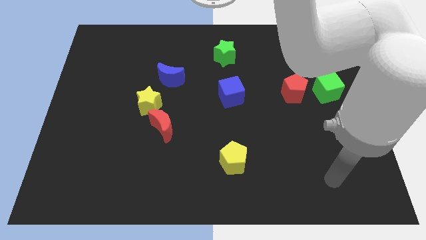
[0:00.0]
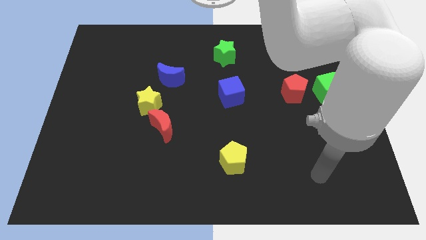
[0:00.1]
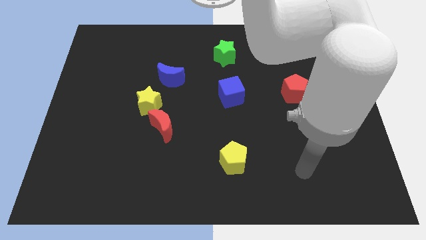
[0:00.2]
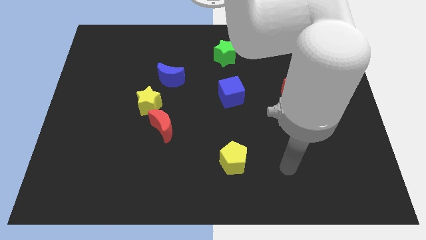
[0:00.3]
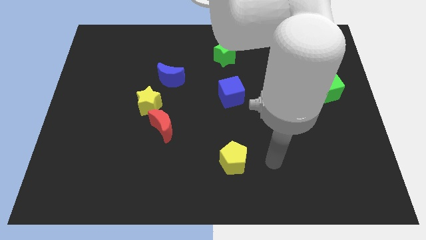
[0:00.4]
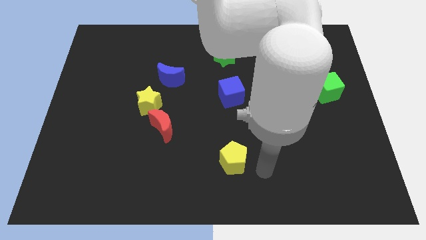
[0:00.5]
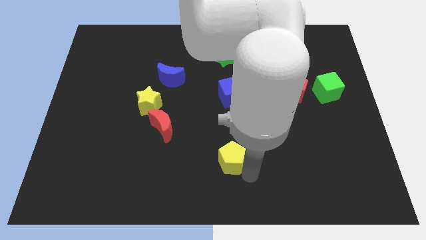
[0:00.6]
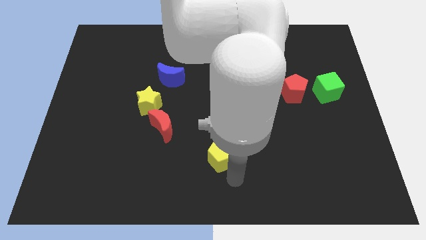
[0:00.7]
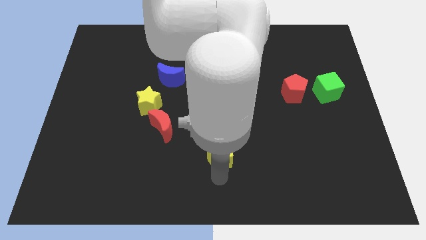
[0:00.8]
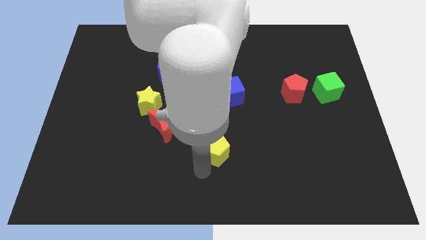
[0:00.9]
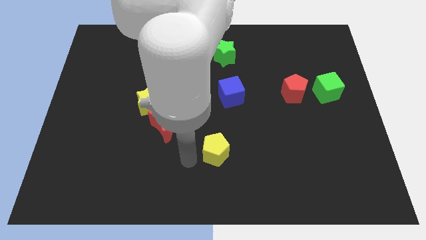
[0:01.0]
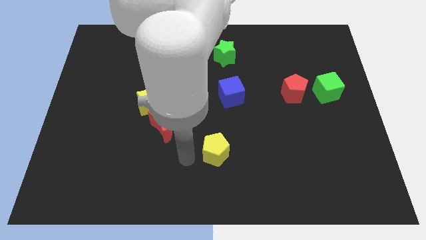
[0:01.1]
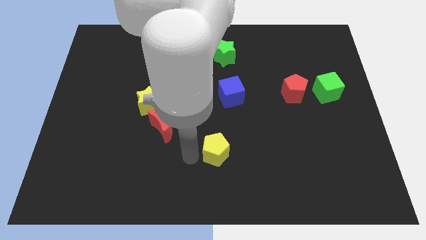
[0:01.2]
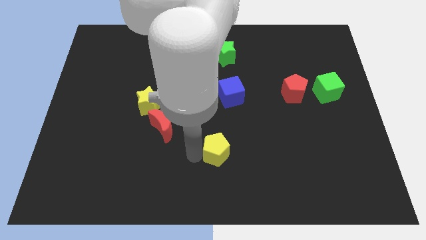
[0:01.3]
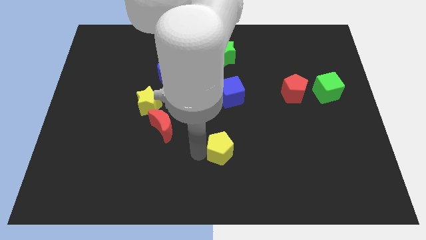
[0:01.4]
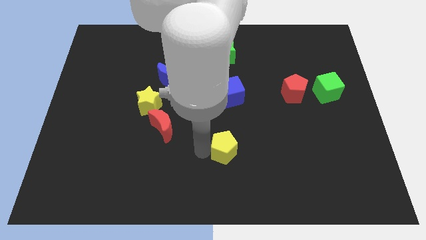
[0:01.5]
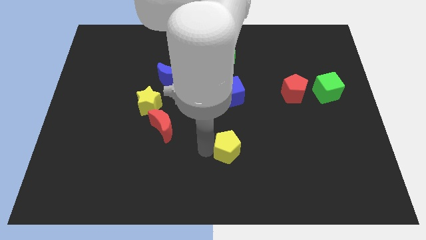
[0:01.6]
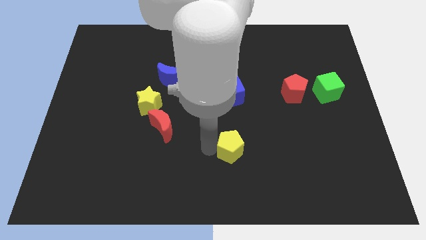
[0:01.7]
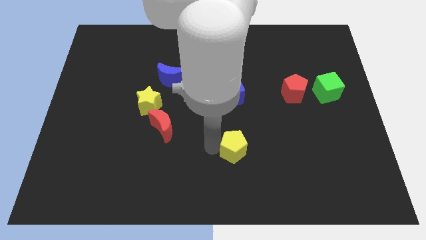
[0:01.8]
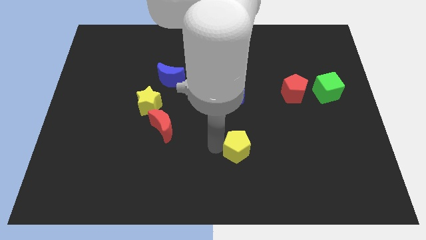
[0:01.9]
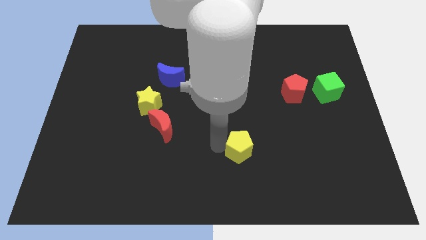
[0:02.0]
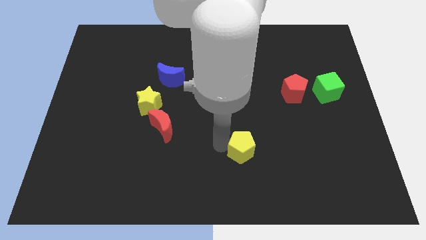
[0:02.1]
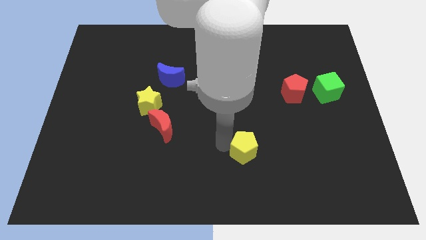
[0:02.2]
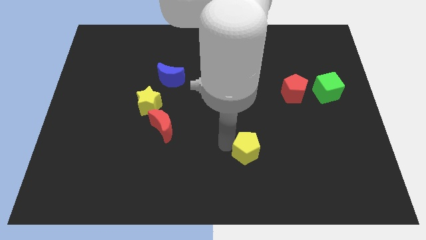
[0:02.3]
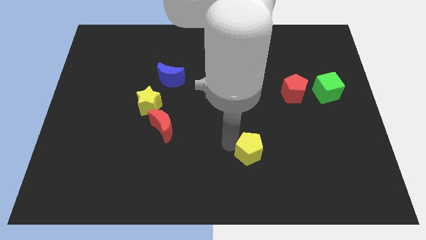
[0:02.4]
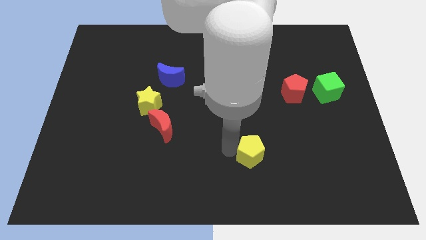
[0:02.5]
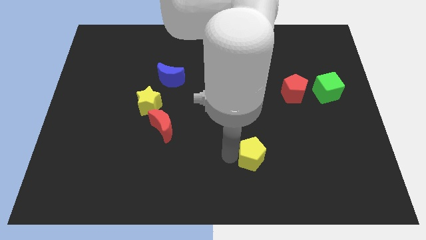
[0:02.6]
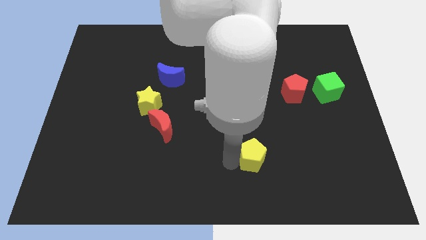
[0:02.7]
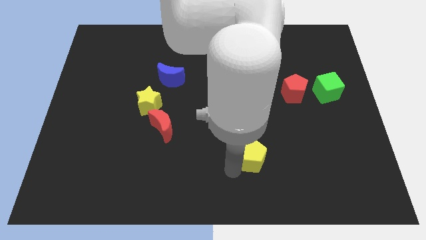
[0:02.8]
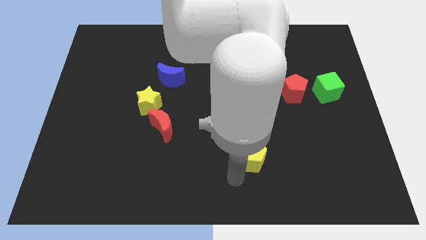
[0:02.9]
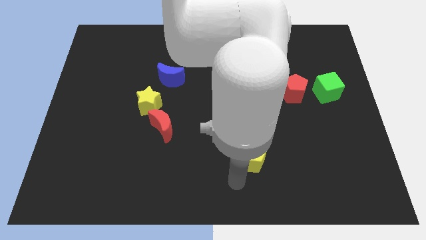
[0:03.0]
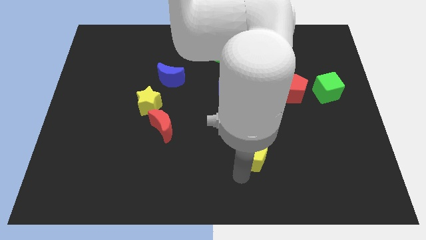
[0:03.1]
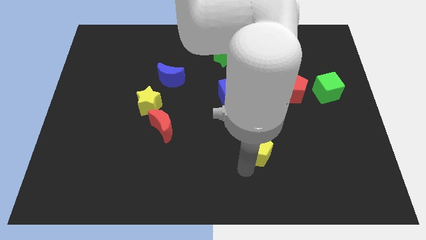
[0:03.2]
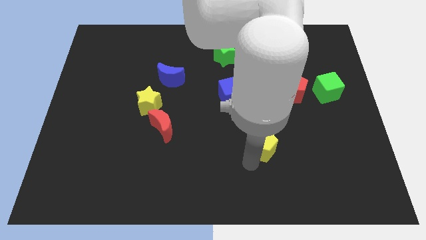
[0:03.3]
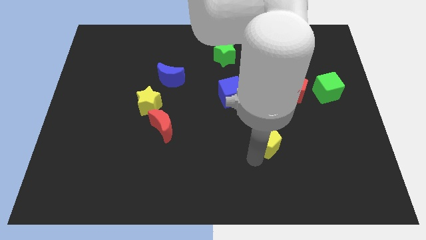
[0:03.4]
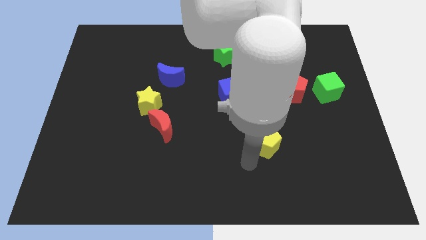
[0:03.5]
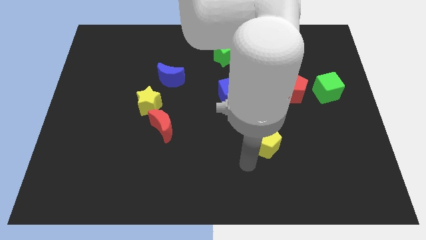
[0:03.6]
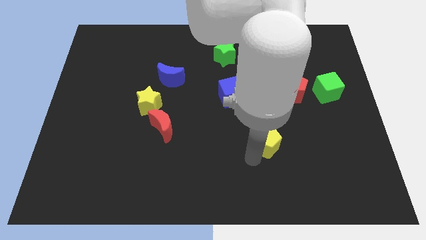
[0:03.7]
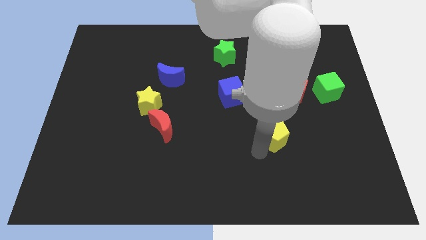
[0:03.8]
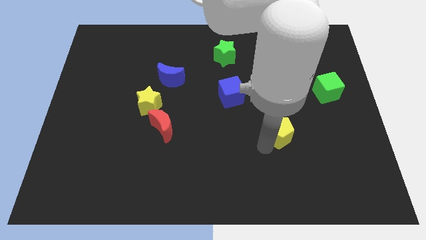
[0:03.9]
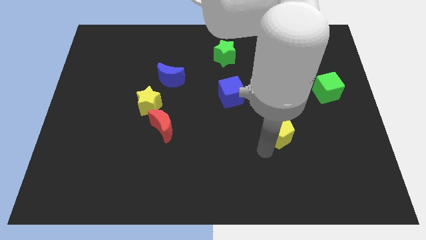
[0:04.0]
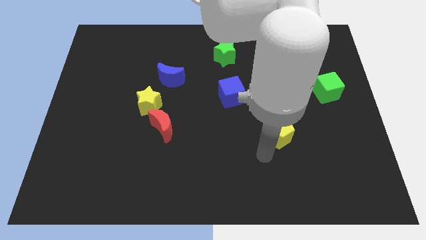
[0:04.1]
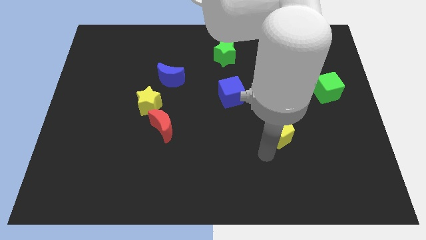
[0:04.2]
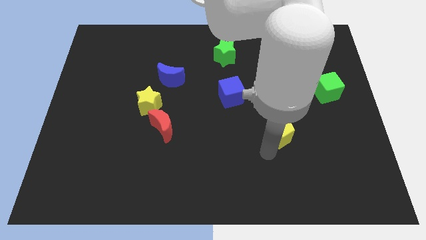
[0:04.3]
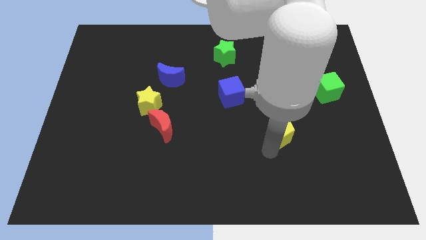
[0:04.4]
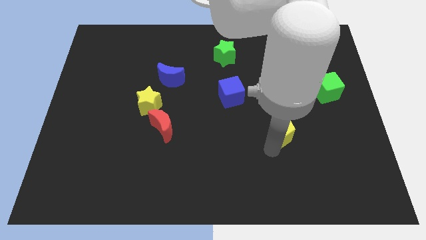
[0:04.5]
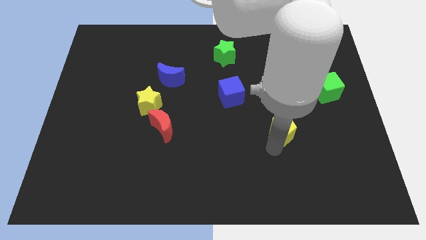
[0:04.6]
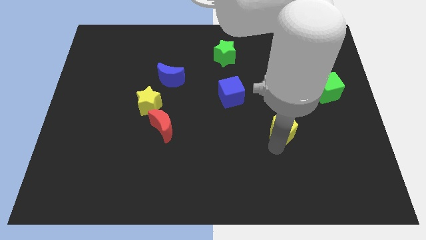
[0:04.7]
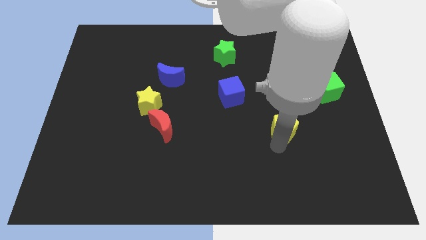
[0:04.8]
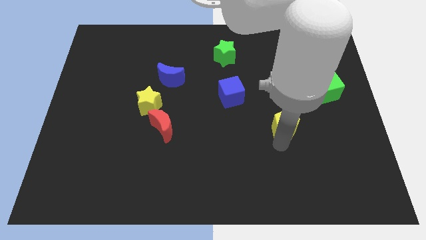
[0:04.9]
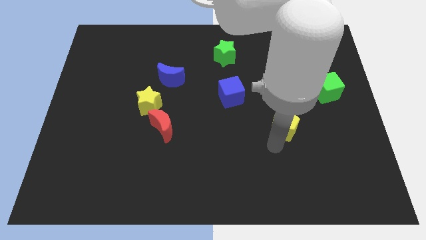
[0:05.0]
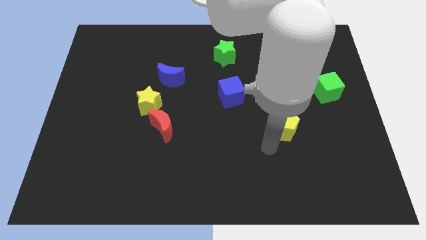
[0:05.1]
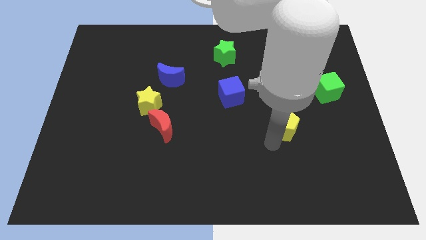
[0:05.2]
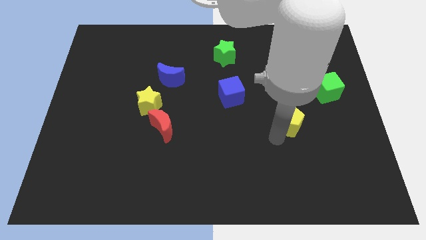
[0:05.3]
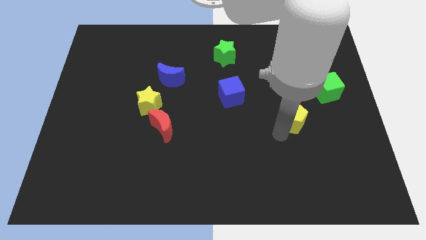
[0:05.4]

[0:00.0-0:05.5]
slide the yellow pentagon diagonally down and to the left of the green cube

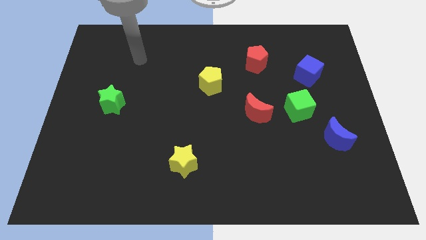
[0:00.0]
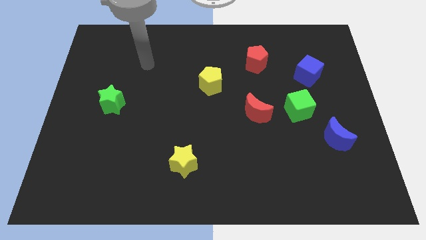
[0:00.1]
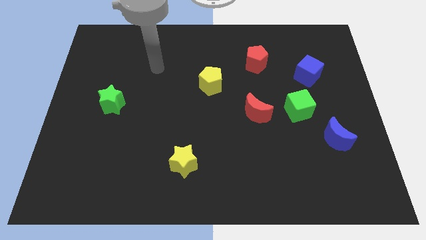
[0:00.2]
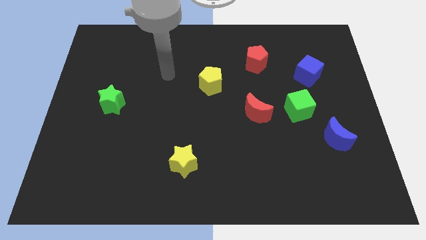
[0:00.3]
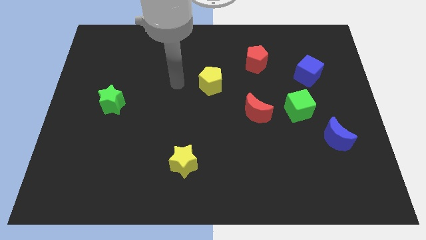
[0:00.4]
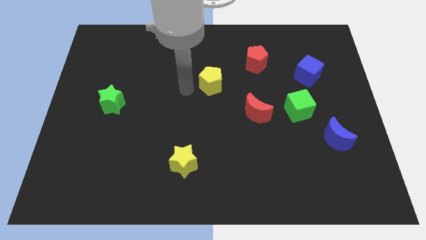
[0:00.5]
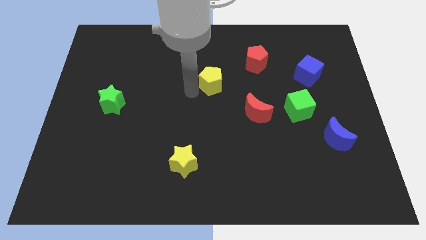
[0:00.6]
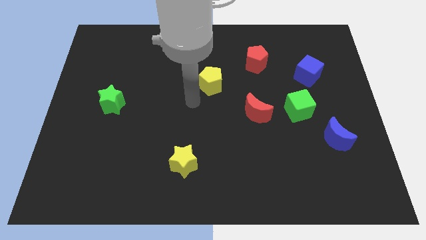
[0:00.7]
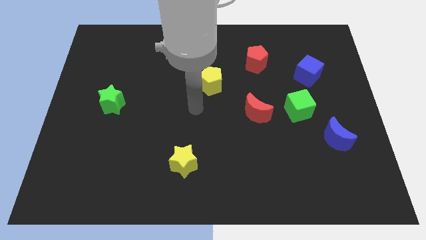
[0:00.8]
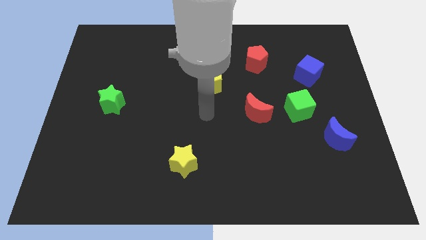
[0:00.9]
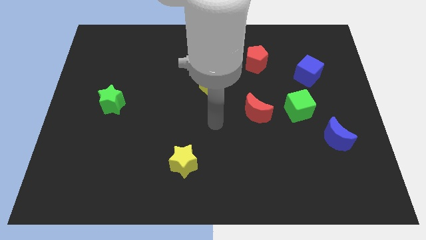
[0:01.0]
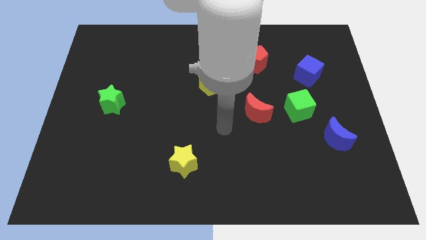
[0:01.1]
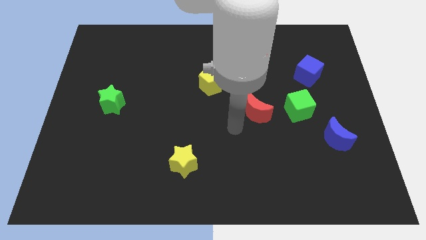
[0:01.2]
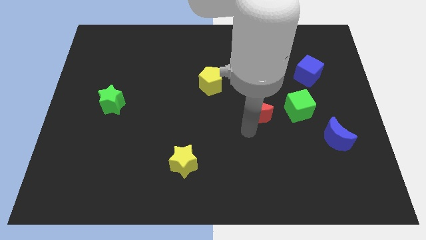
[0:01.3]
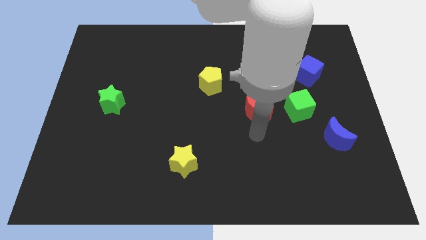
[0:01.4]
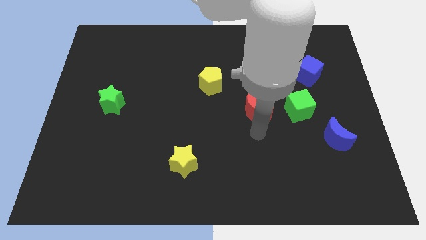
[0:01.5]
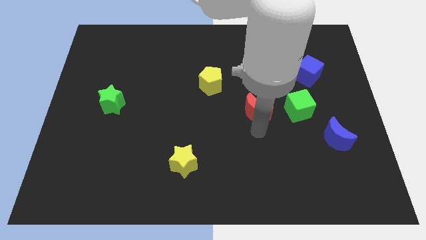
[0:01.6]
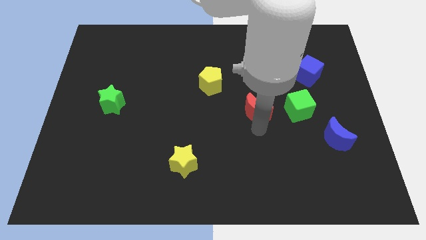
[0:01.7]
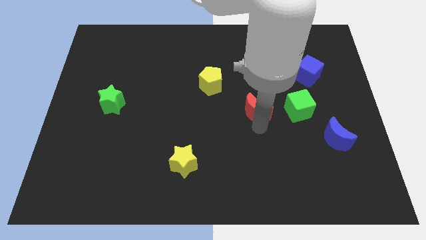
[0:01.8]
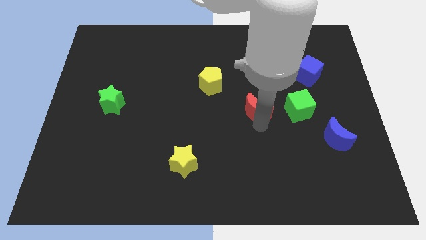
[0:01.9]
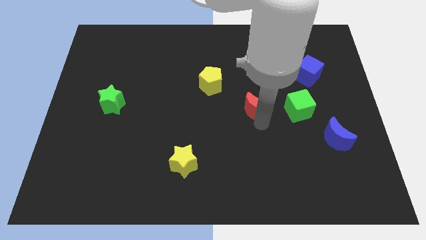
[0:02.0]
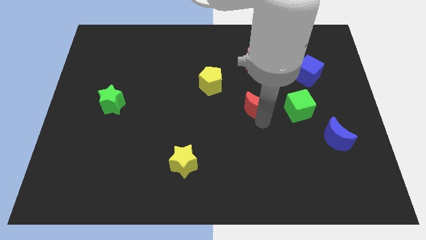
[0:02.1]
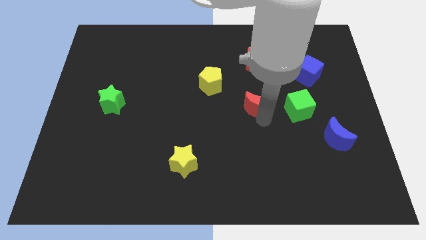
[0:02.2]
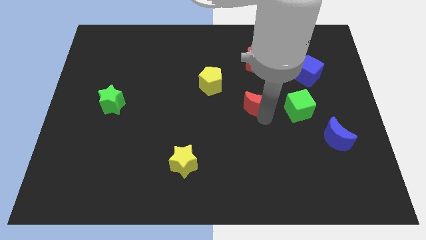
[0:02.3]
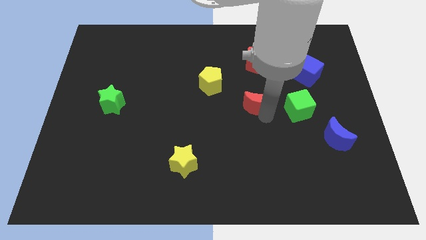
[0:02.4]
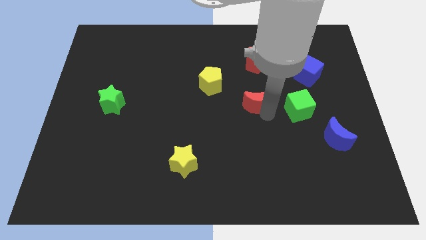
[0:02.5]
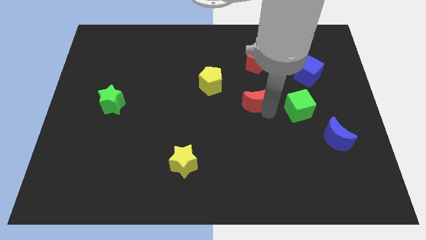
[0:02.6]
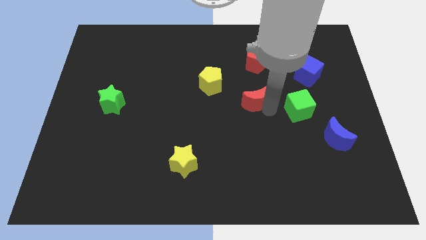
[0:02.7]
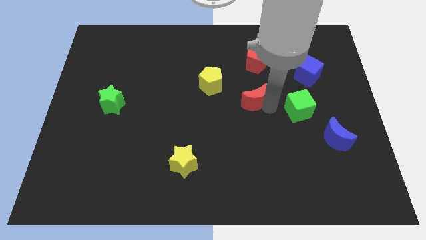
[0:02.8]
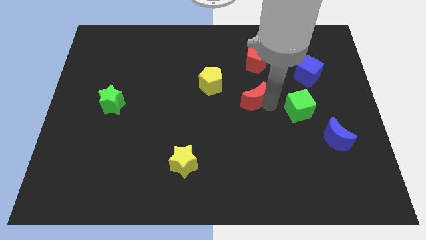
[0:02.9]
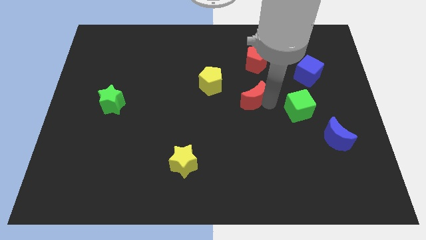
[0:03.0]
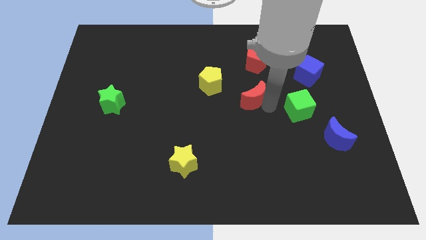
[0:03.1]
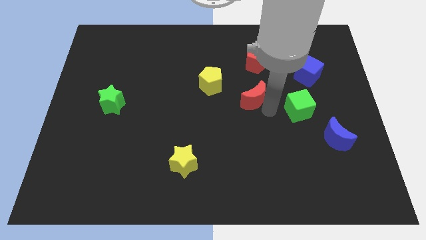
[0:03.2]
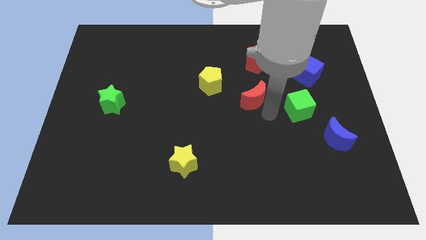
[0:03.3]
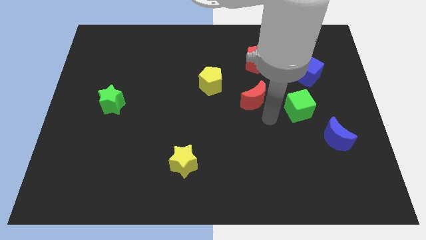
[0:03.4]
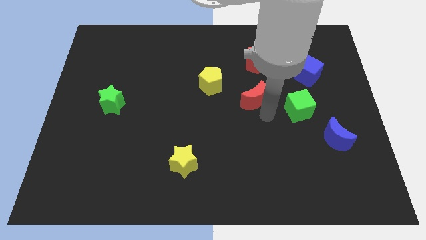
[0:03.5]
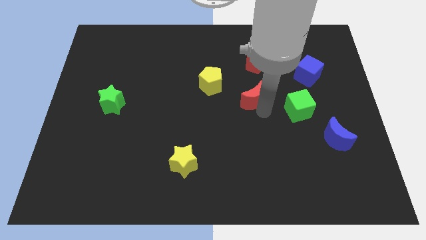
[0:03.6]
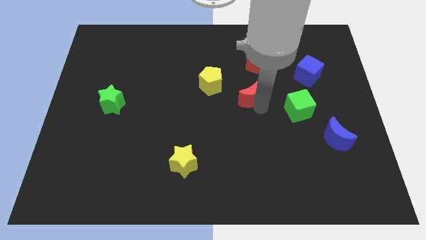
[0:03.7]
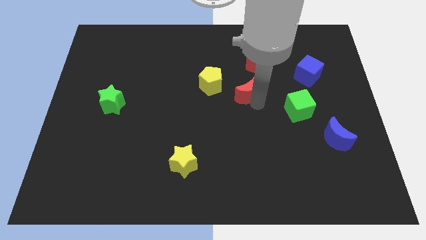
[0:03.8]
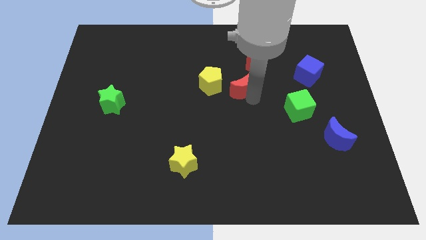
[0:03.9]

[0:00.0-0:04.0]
move the red moon to the bottom left of the red pentagon
